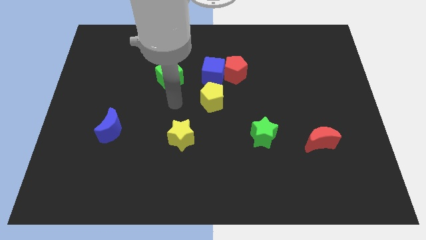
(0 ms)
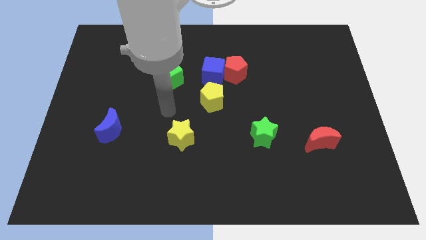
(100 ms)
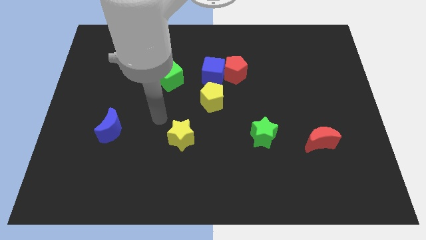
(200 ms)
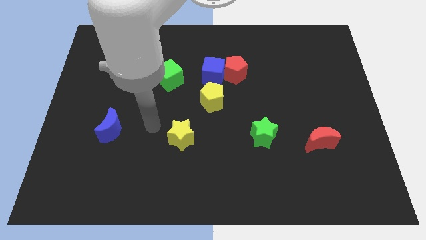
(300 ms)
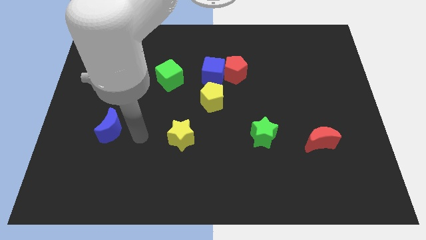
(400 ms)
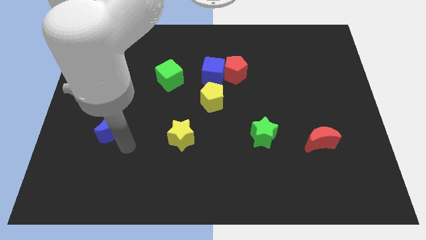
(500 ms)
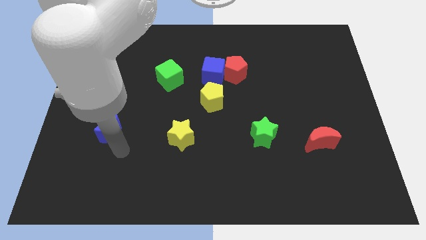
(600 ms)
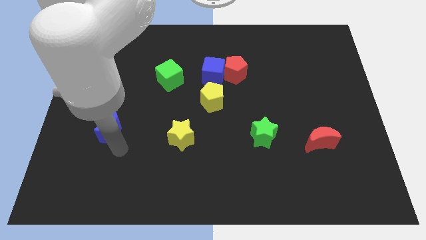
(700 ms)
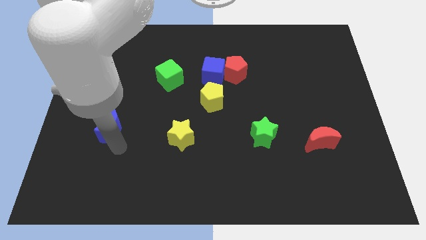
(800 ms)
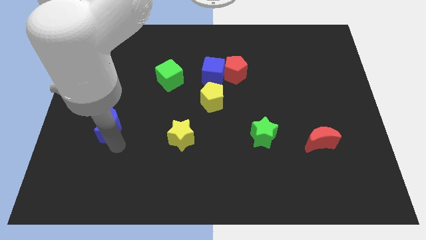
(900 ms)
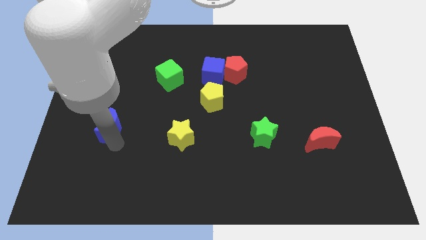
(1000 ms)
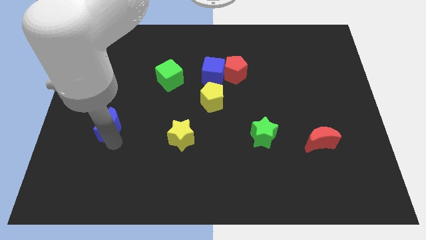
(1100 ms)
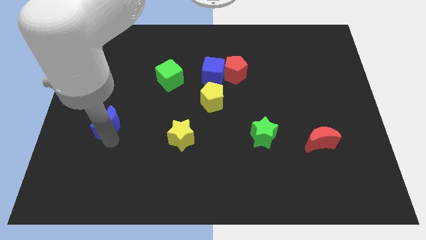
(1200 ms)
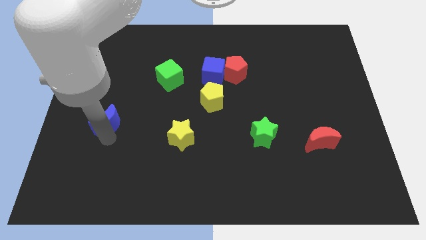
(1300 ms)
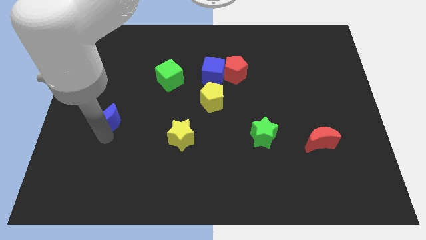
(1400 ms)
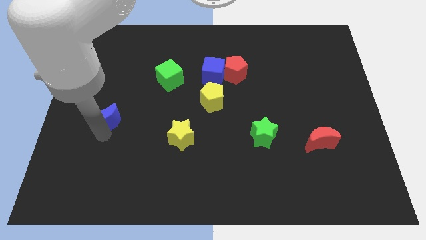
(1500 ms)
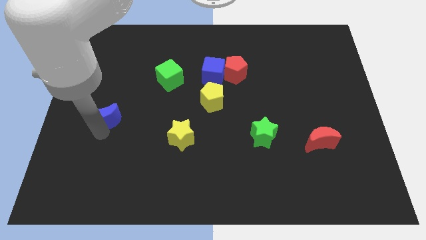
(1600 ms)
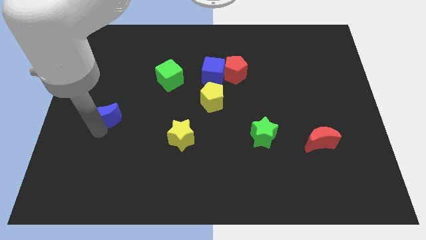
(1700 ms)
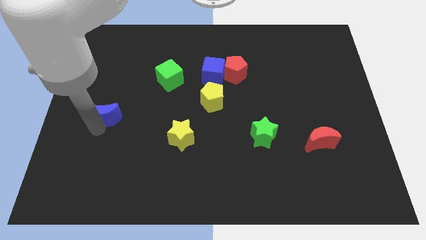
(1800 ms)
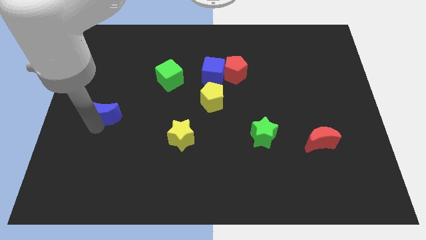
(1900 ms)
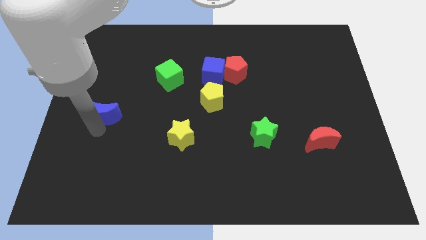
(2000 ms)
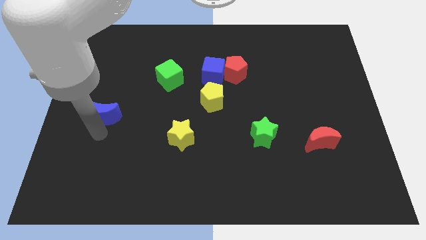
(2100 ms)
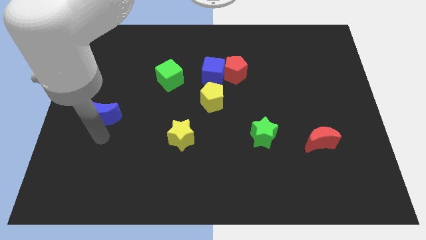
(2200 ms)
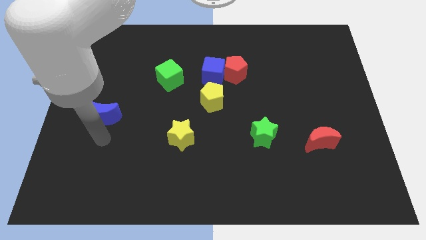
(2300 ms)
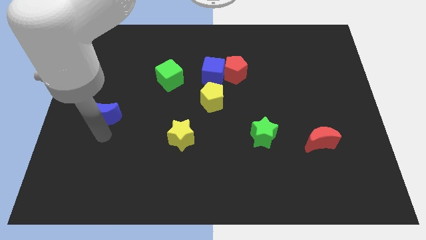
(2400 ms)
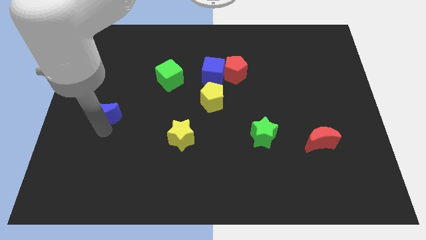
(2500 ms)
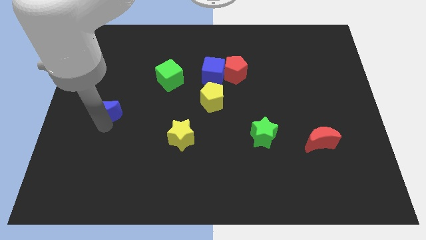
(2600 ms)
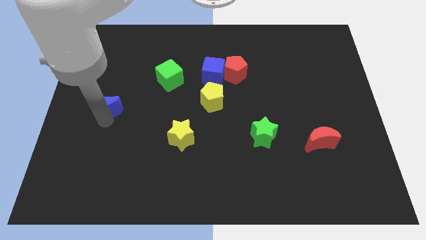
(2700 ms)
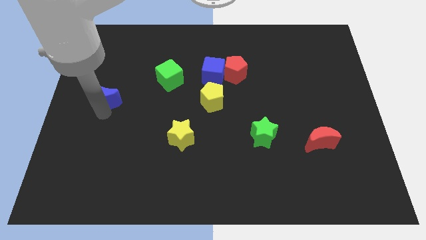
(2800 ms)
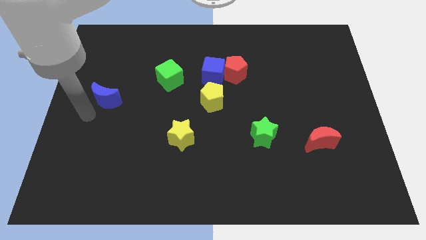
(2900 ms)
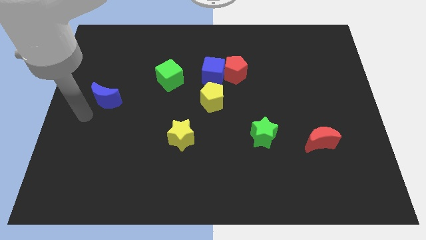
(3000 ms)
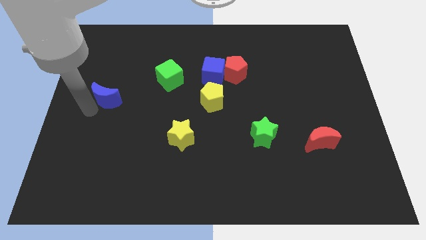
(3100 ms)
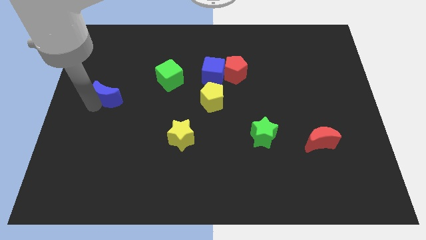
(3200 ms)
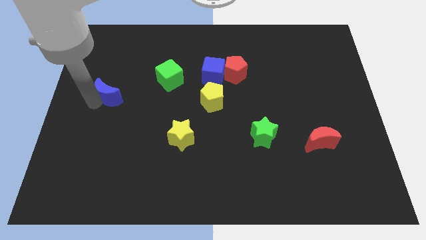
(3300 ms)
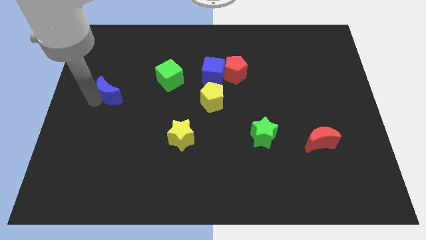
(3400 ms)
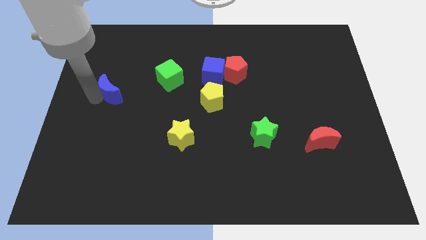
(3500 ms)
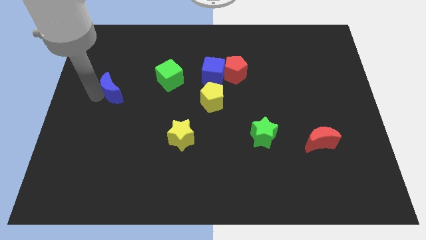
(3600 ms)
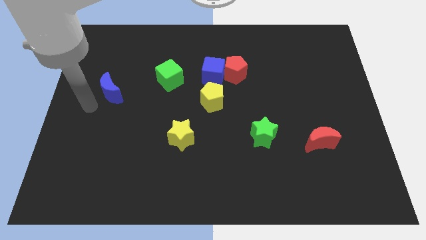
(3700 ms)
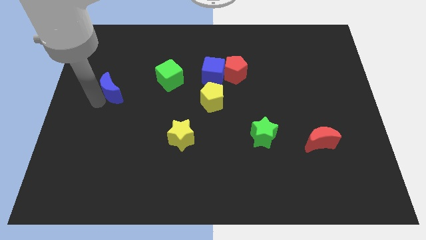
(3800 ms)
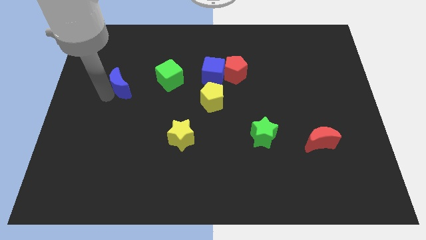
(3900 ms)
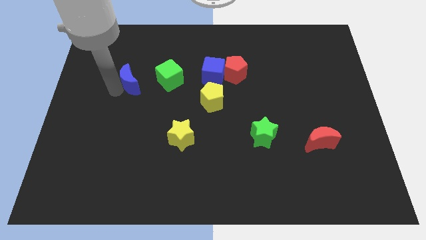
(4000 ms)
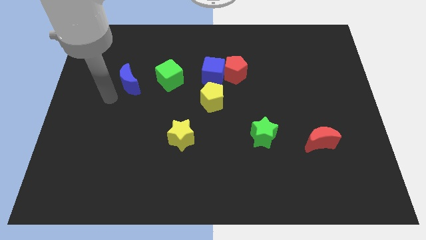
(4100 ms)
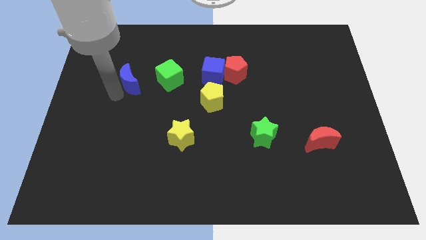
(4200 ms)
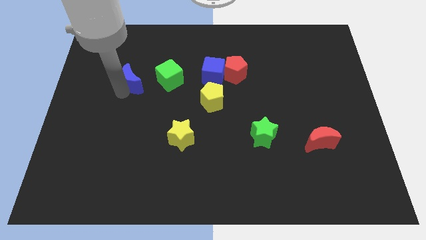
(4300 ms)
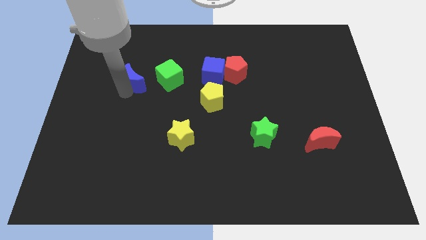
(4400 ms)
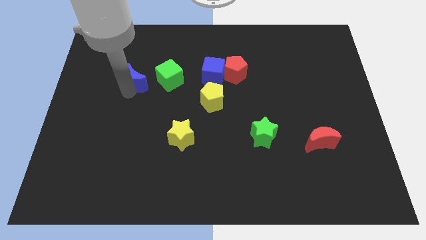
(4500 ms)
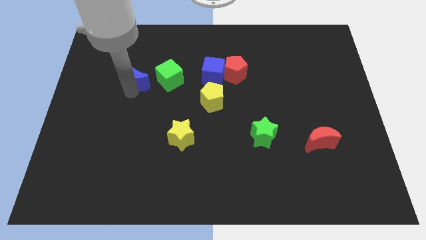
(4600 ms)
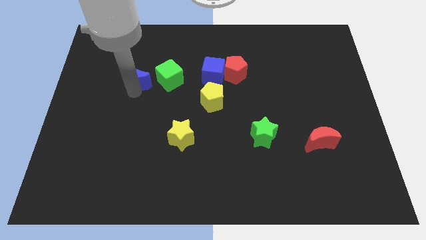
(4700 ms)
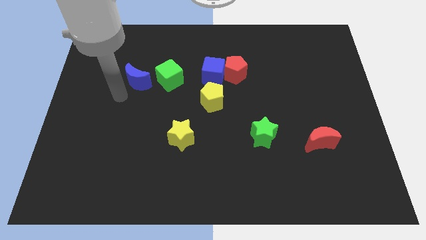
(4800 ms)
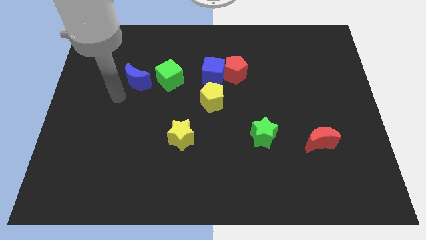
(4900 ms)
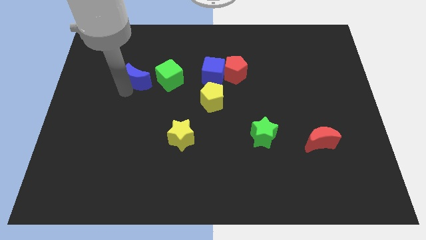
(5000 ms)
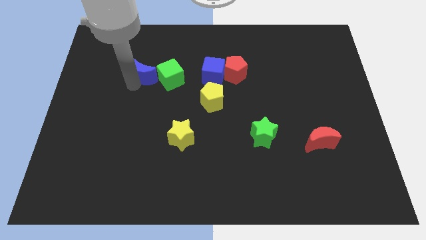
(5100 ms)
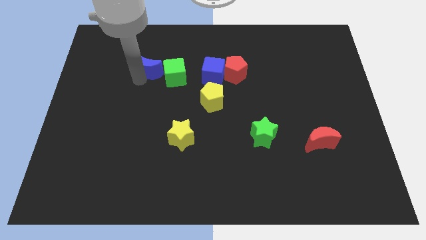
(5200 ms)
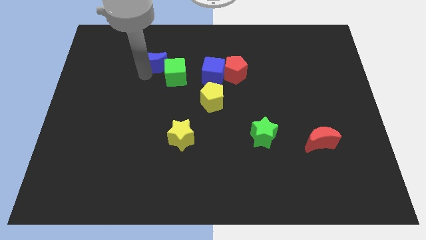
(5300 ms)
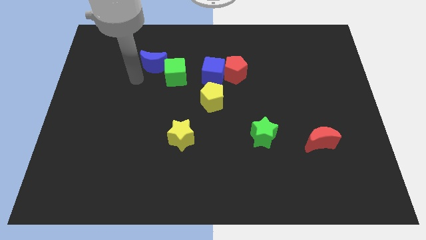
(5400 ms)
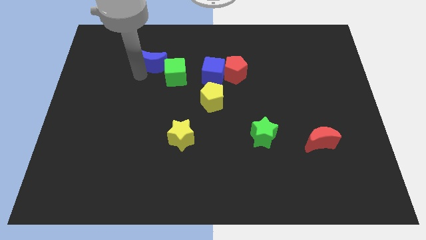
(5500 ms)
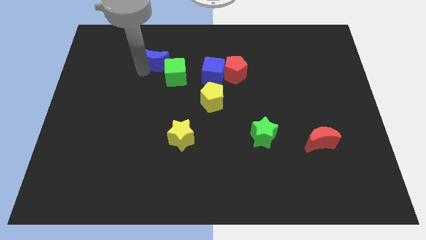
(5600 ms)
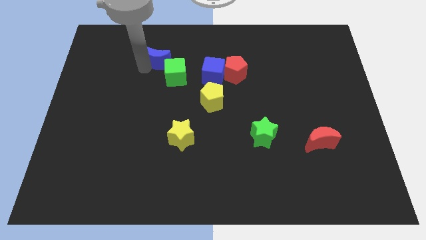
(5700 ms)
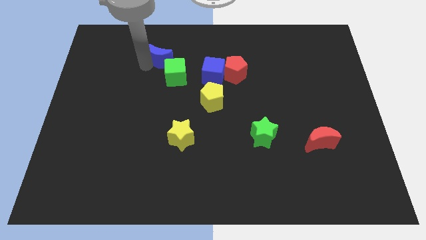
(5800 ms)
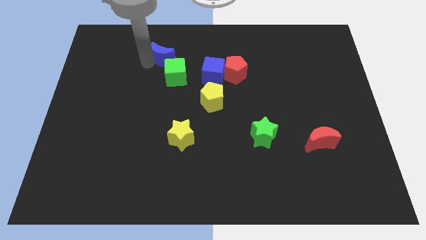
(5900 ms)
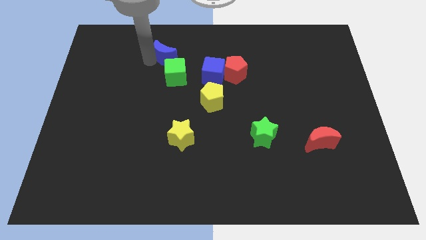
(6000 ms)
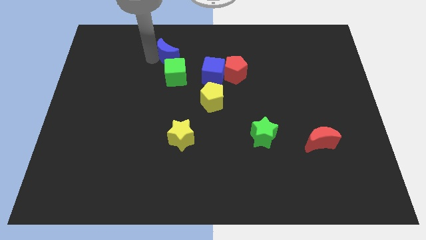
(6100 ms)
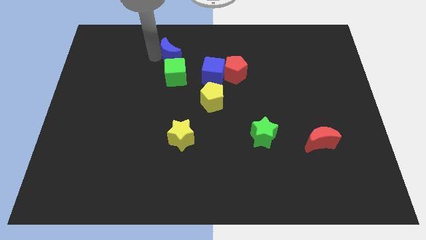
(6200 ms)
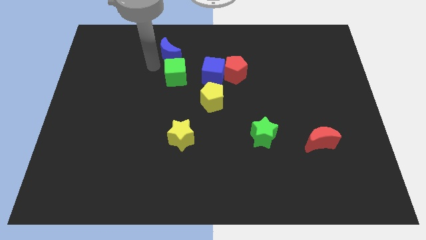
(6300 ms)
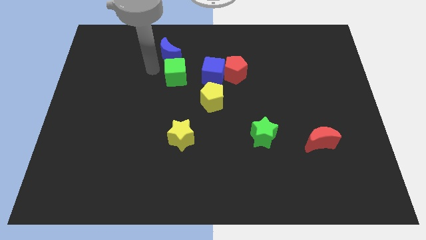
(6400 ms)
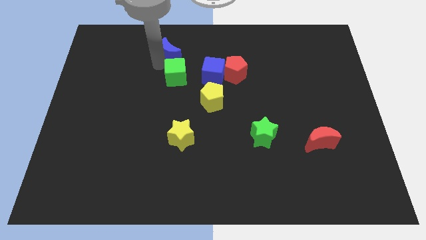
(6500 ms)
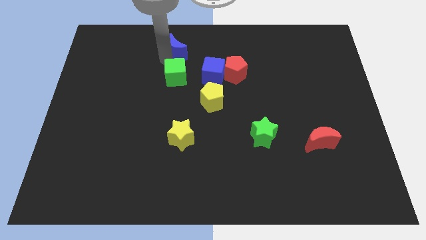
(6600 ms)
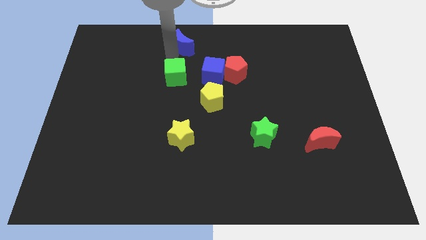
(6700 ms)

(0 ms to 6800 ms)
push the blue moon to the top
